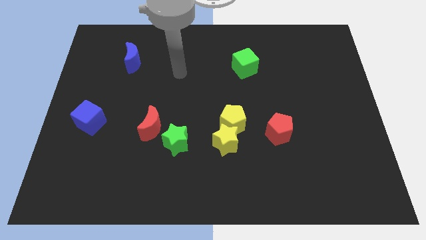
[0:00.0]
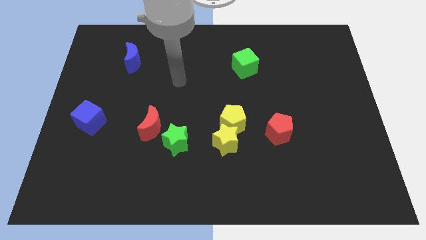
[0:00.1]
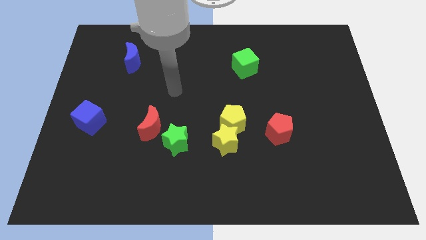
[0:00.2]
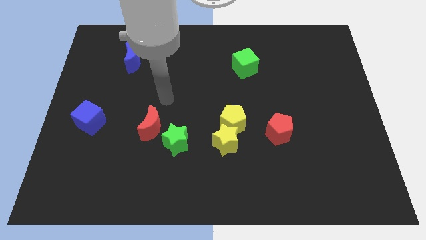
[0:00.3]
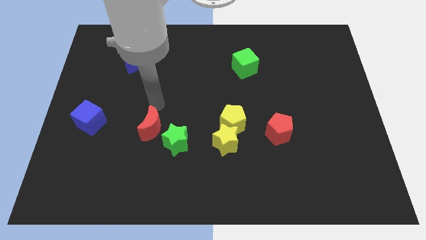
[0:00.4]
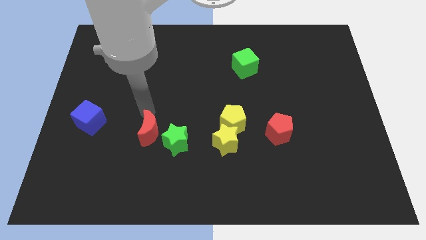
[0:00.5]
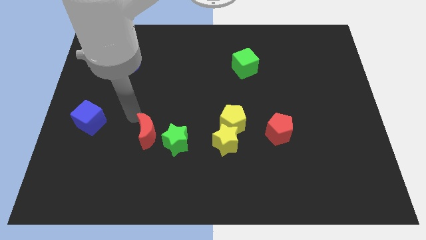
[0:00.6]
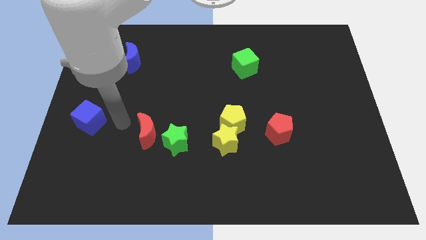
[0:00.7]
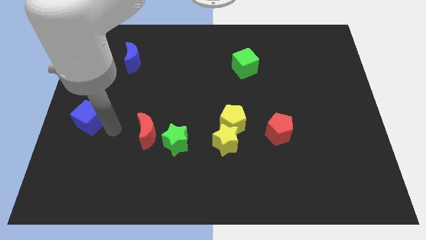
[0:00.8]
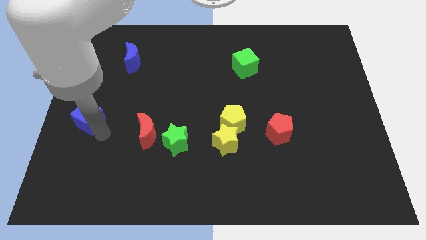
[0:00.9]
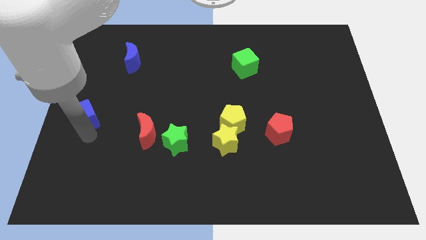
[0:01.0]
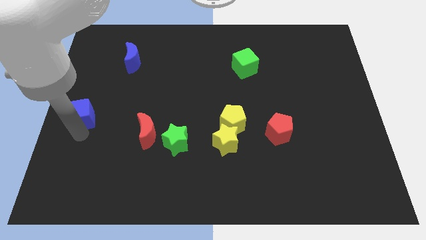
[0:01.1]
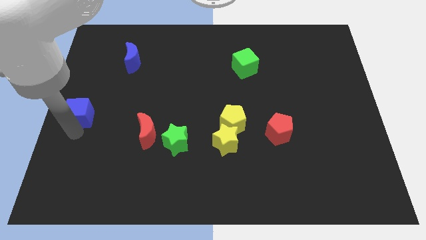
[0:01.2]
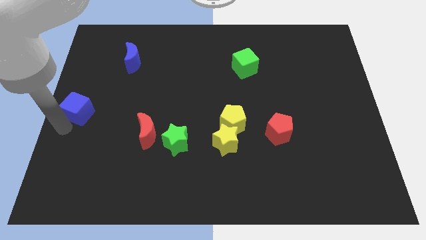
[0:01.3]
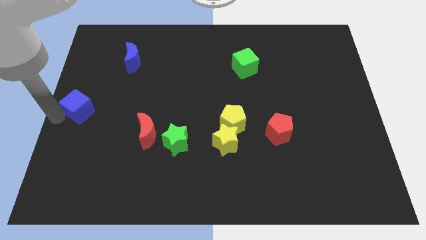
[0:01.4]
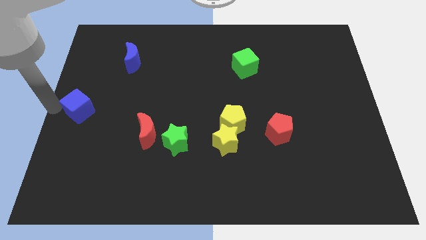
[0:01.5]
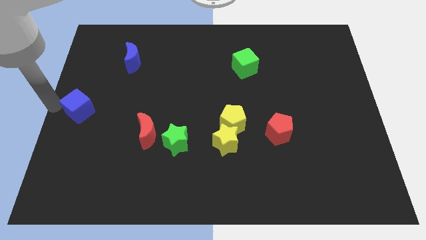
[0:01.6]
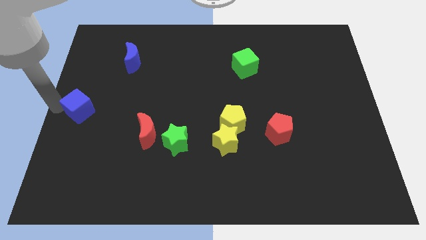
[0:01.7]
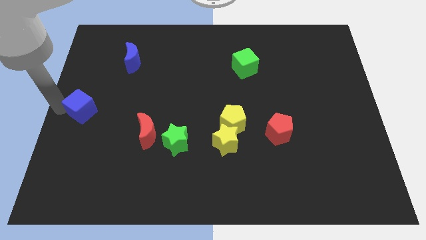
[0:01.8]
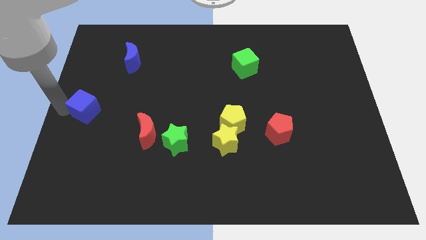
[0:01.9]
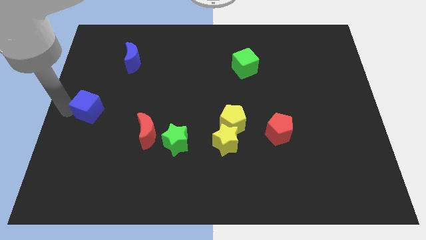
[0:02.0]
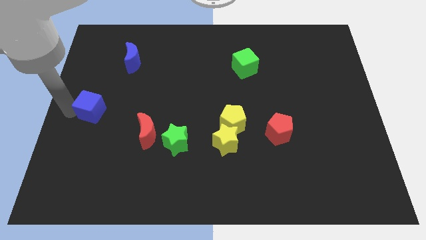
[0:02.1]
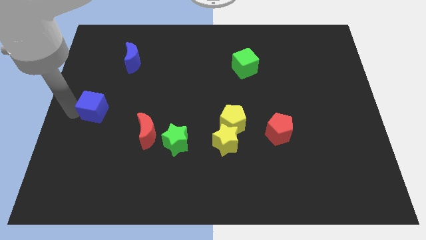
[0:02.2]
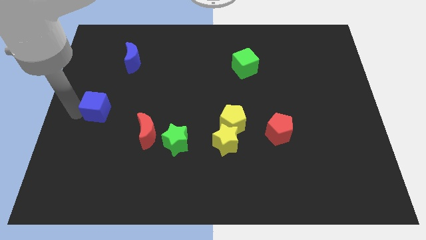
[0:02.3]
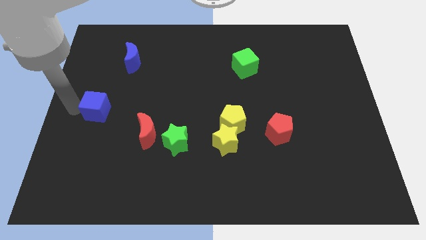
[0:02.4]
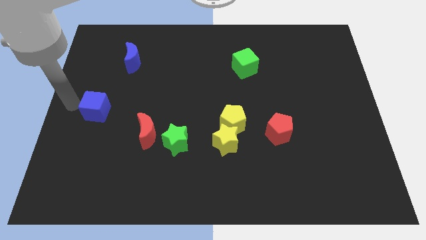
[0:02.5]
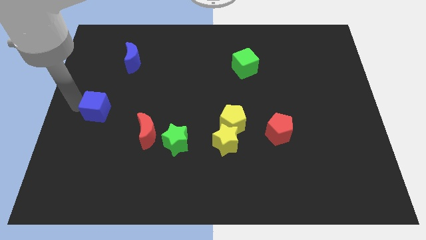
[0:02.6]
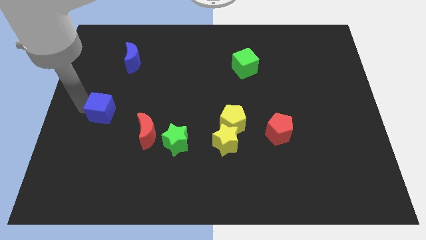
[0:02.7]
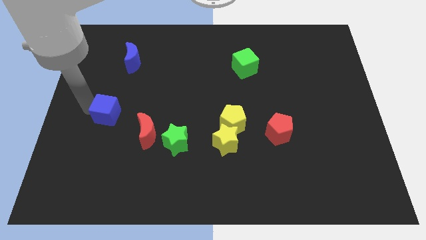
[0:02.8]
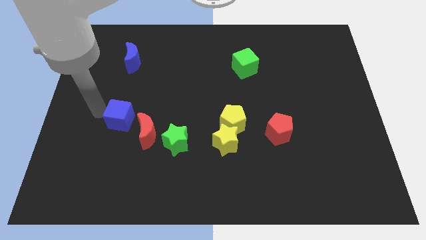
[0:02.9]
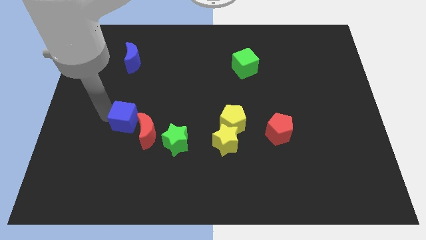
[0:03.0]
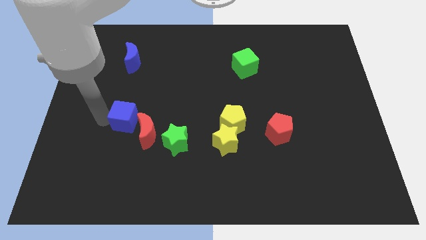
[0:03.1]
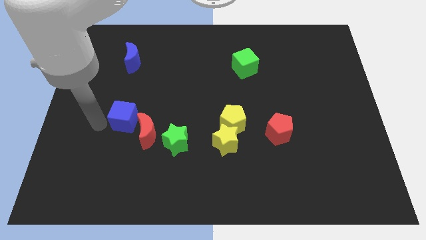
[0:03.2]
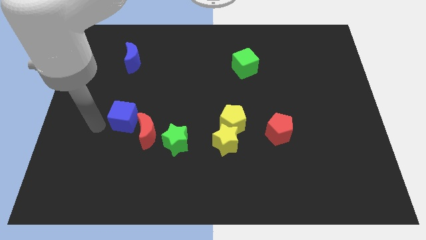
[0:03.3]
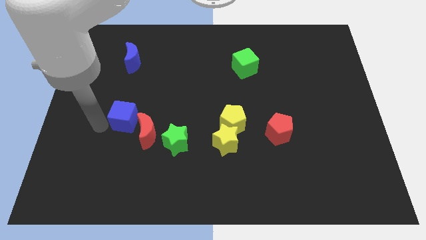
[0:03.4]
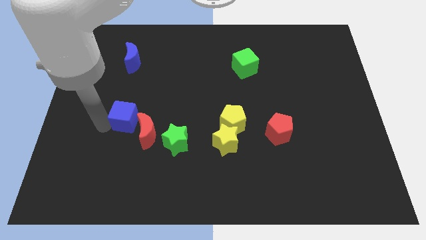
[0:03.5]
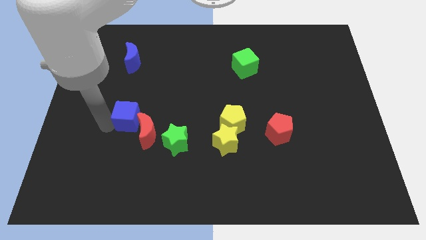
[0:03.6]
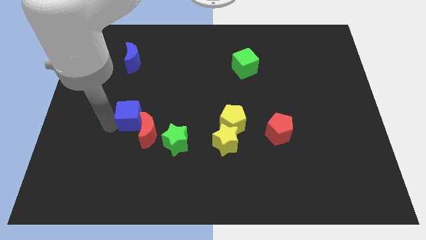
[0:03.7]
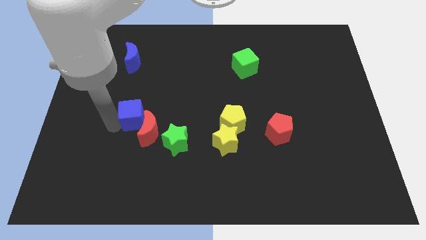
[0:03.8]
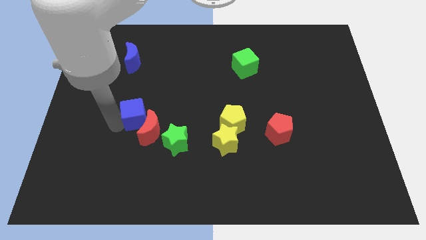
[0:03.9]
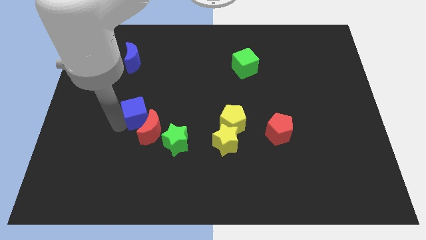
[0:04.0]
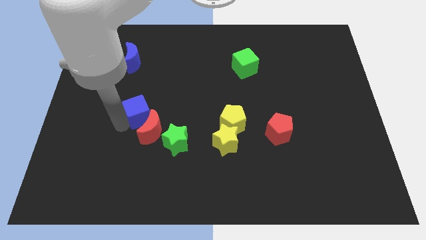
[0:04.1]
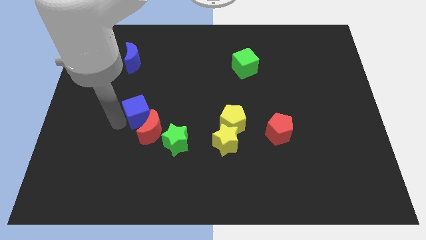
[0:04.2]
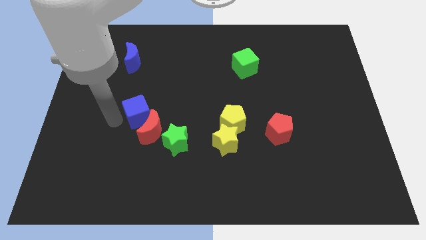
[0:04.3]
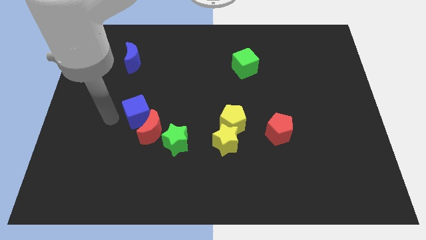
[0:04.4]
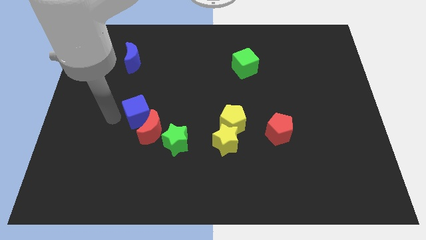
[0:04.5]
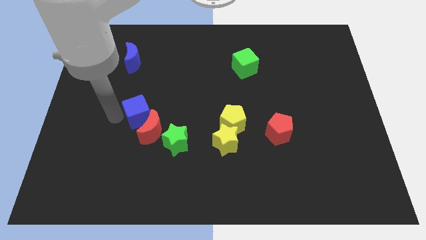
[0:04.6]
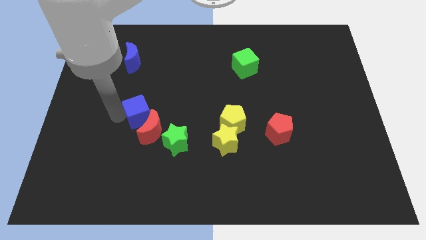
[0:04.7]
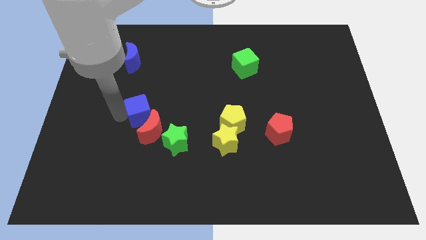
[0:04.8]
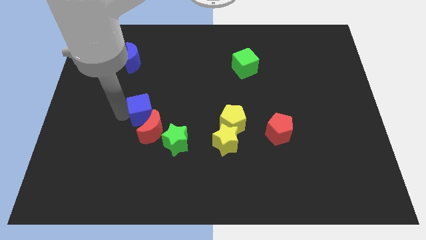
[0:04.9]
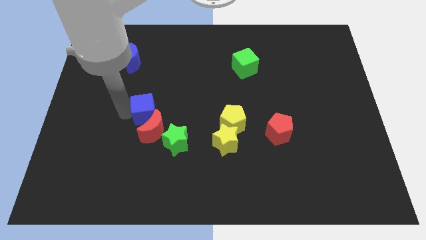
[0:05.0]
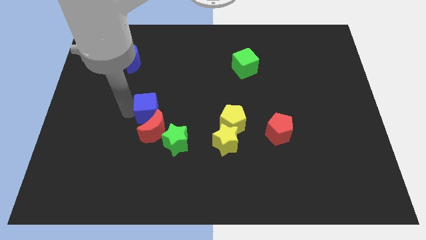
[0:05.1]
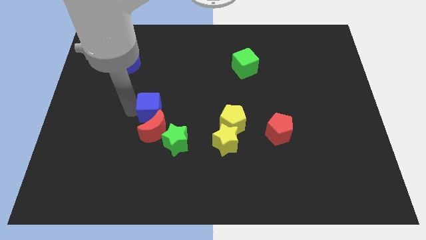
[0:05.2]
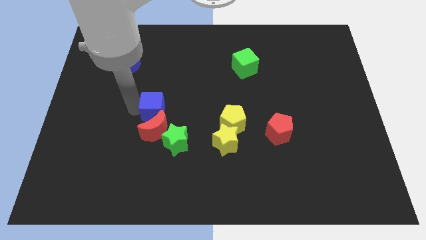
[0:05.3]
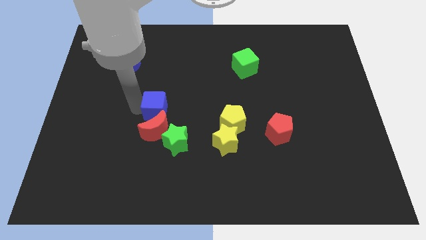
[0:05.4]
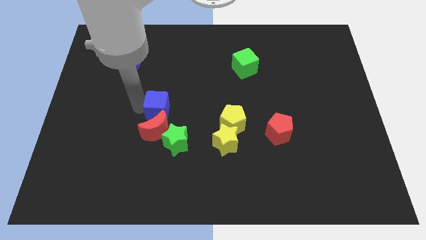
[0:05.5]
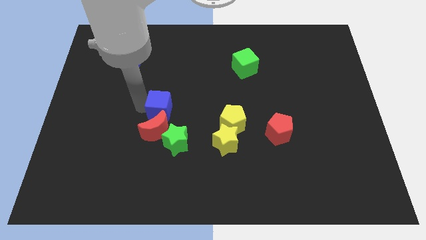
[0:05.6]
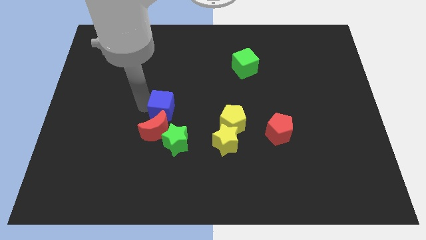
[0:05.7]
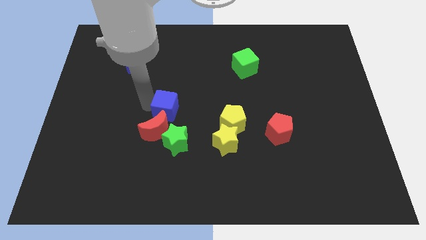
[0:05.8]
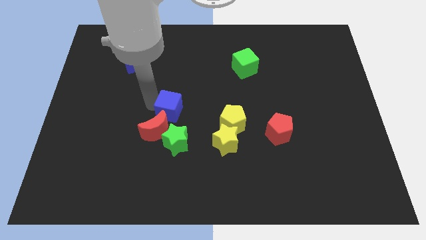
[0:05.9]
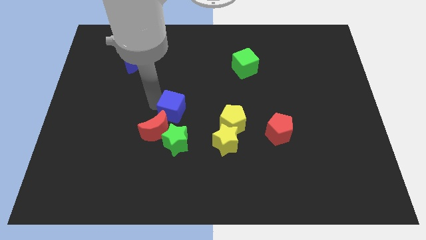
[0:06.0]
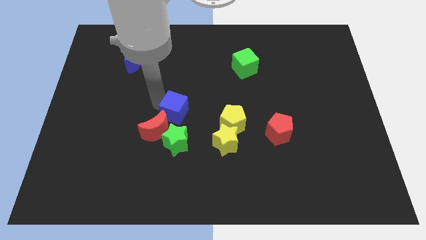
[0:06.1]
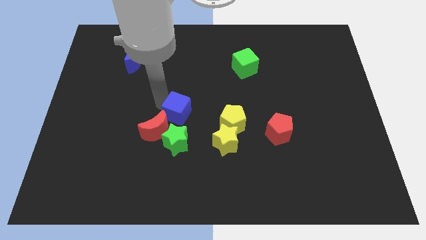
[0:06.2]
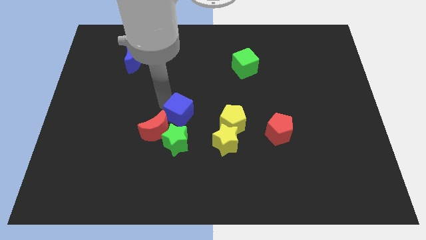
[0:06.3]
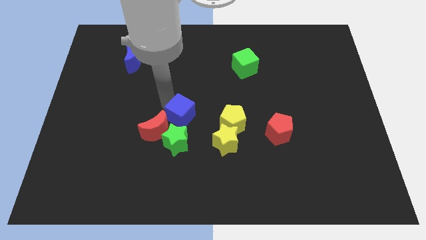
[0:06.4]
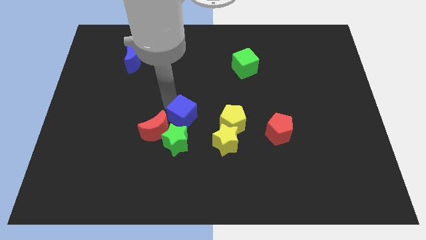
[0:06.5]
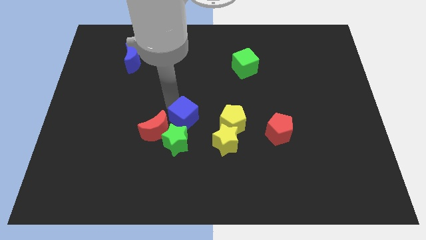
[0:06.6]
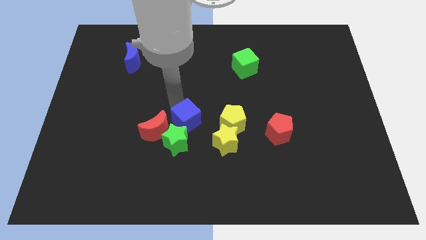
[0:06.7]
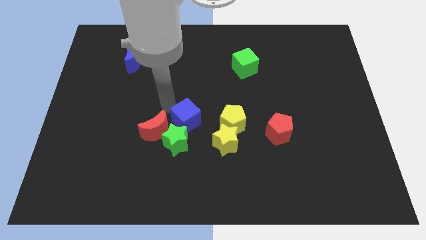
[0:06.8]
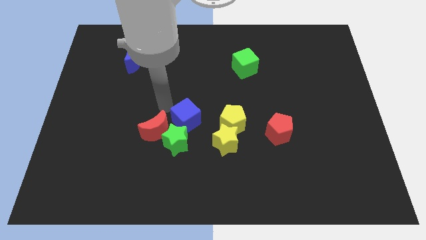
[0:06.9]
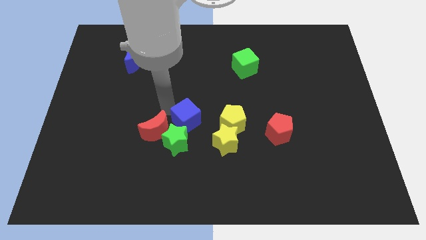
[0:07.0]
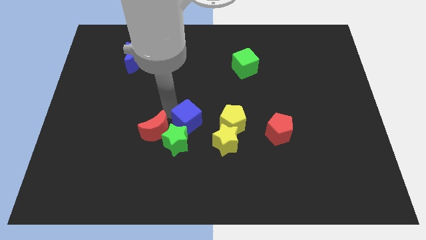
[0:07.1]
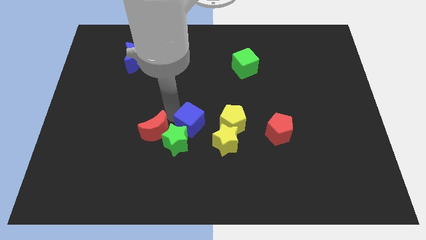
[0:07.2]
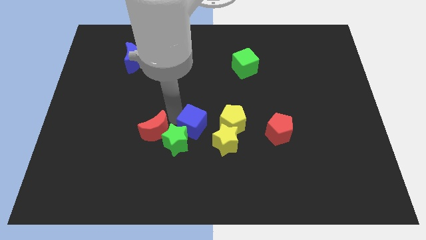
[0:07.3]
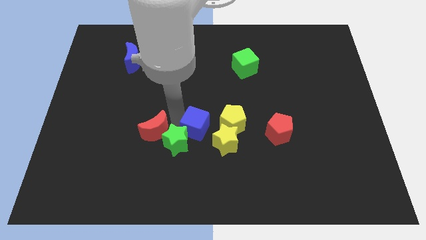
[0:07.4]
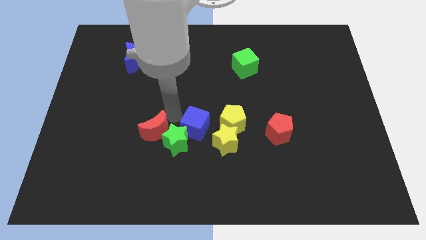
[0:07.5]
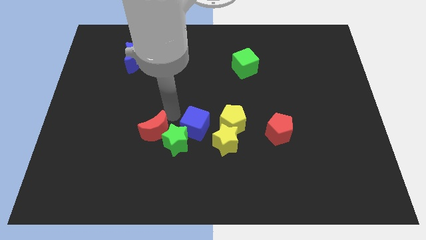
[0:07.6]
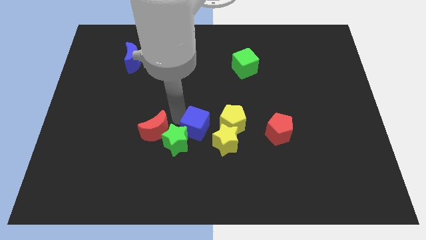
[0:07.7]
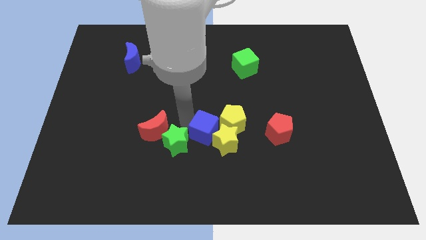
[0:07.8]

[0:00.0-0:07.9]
move the blue cube next to the yellow star
